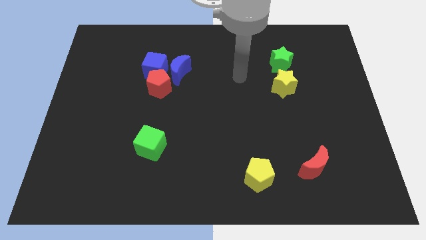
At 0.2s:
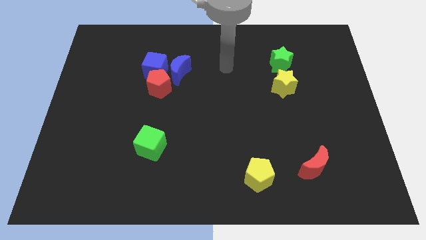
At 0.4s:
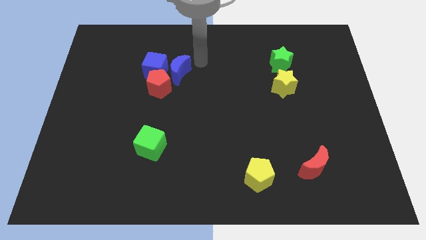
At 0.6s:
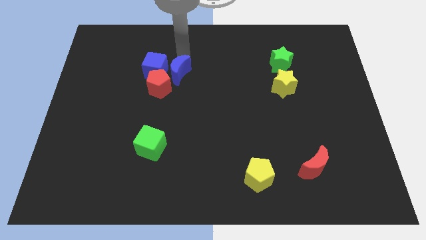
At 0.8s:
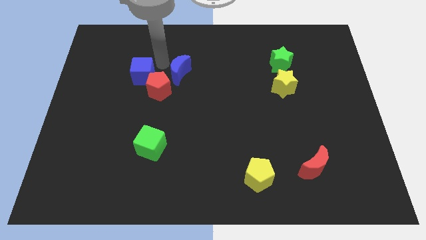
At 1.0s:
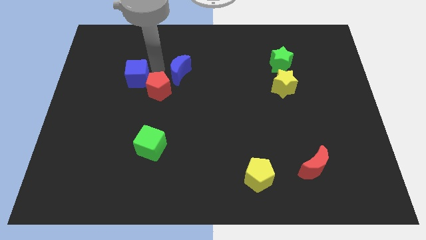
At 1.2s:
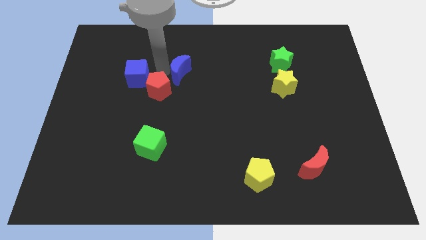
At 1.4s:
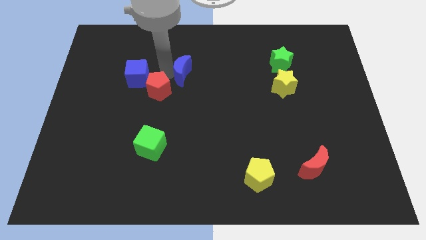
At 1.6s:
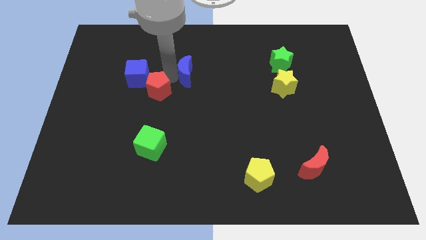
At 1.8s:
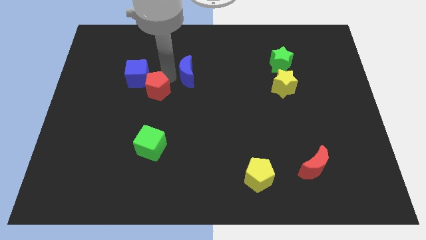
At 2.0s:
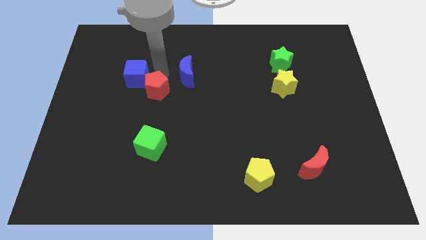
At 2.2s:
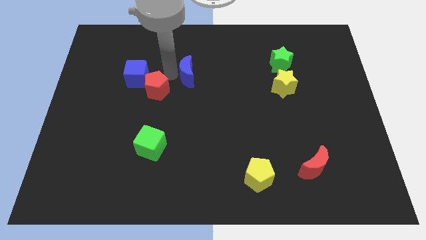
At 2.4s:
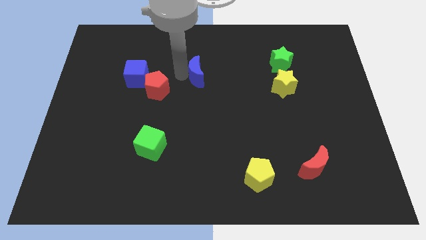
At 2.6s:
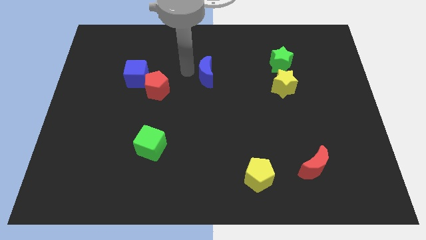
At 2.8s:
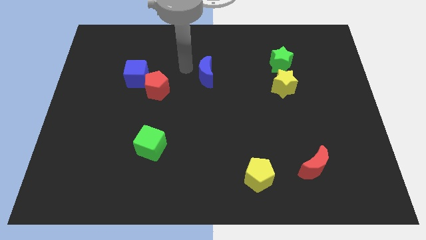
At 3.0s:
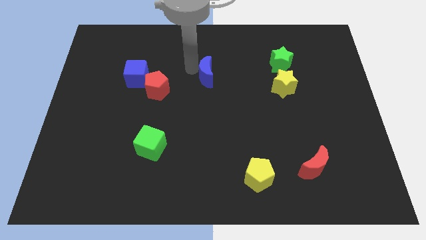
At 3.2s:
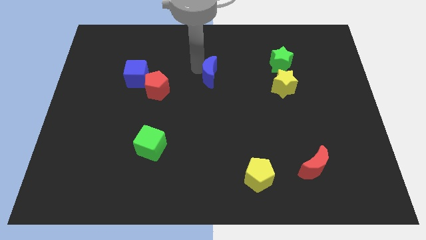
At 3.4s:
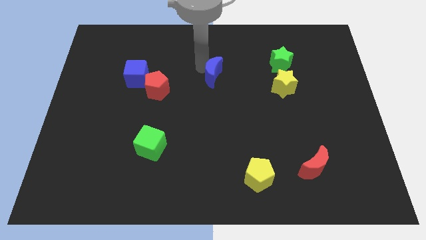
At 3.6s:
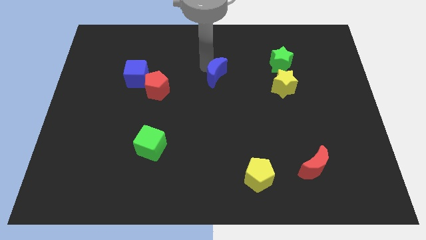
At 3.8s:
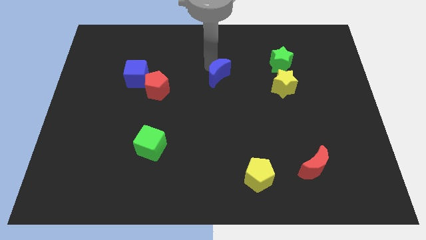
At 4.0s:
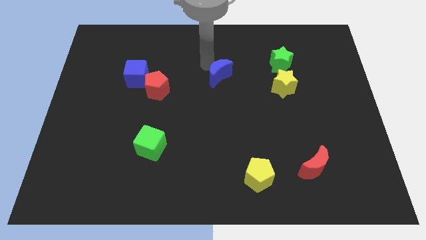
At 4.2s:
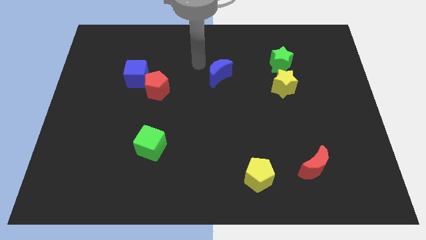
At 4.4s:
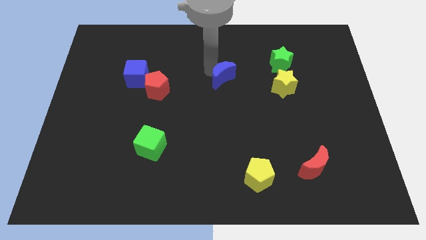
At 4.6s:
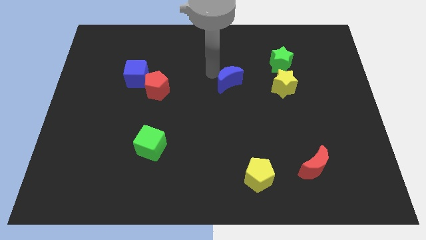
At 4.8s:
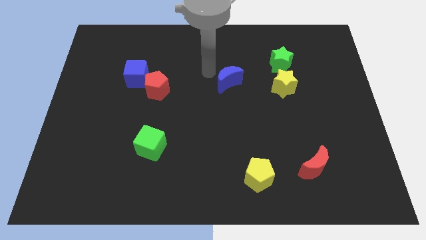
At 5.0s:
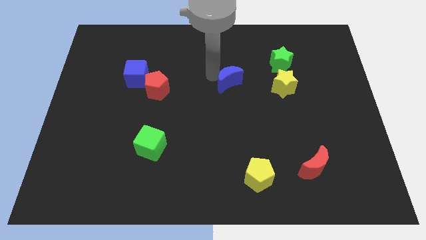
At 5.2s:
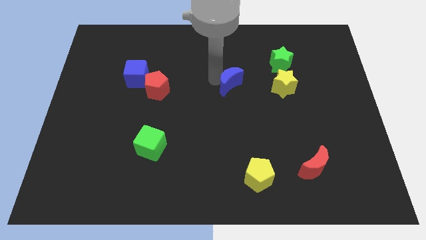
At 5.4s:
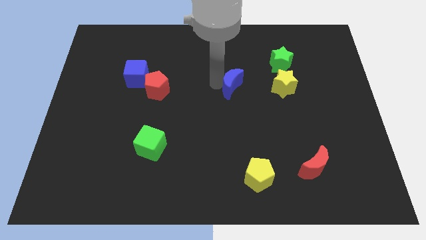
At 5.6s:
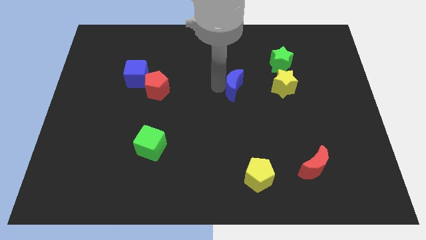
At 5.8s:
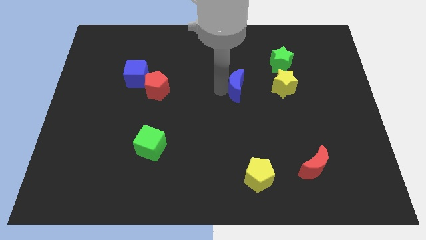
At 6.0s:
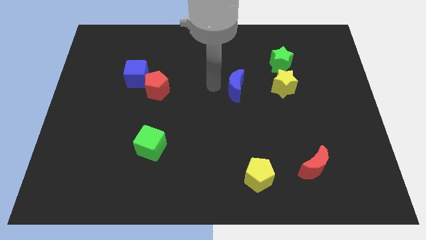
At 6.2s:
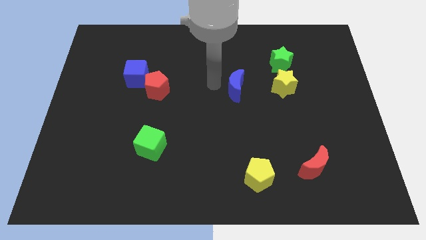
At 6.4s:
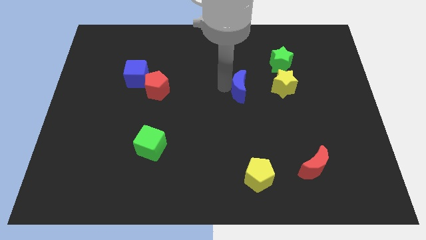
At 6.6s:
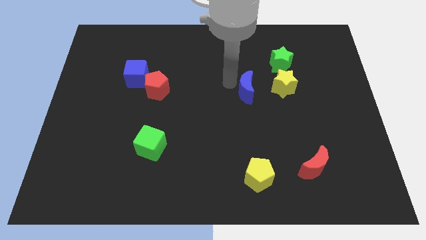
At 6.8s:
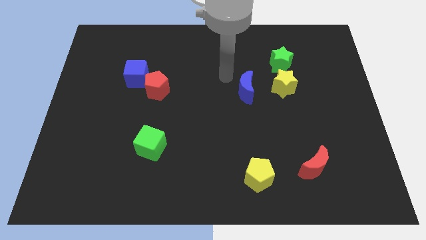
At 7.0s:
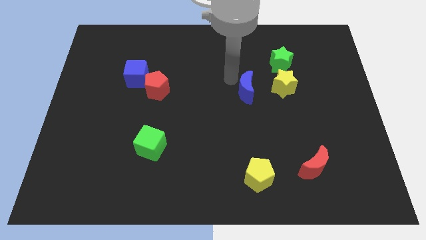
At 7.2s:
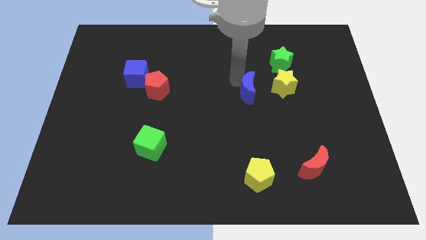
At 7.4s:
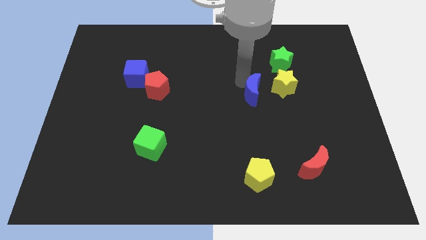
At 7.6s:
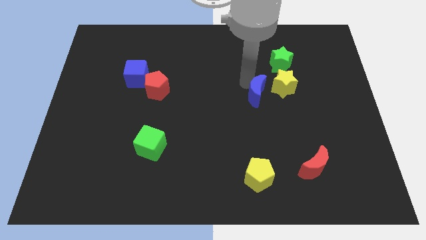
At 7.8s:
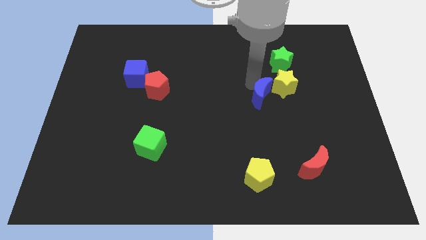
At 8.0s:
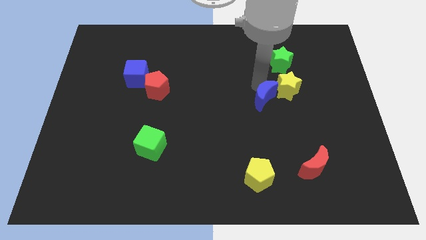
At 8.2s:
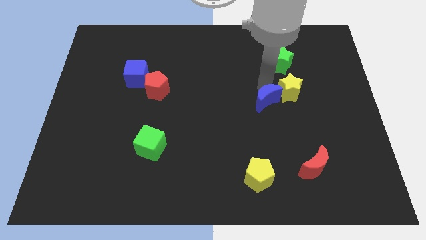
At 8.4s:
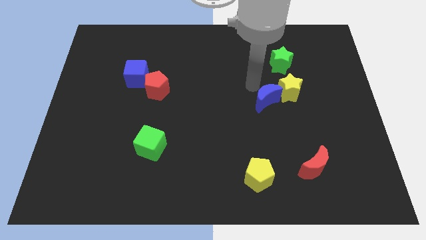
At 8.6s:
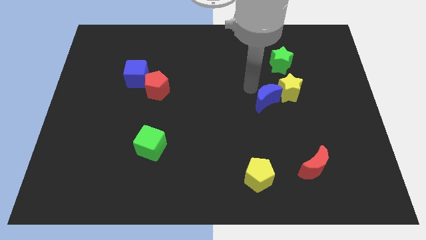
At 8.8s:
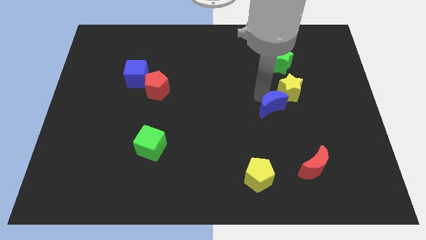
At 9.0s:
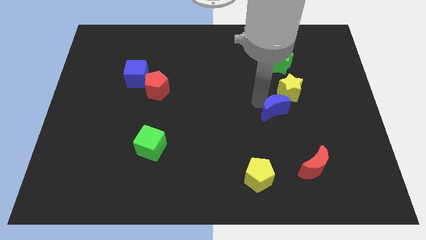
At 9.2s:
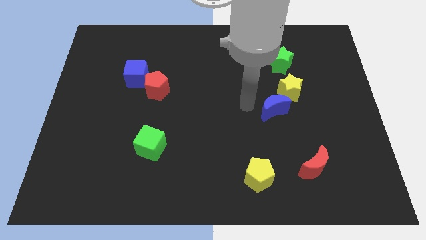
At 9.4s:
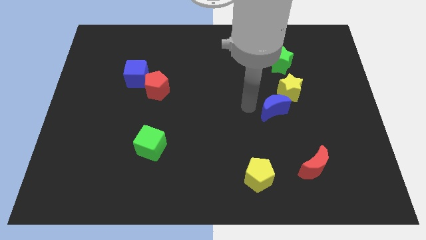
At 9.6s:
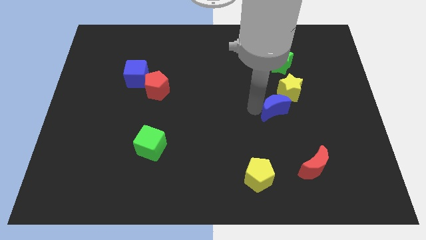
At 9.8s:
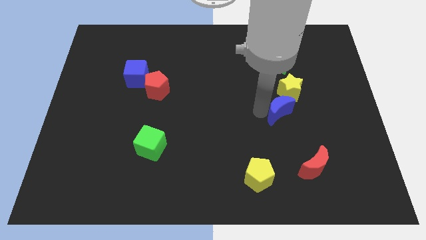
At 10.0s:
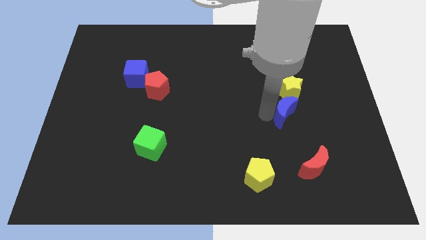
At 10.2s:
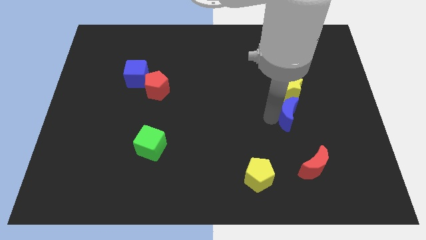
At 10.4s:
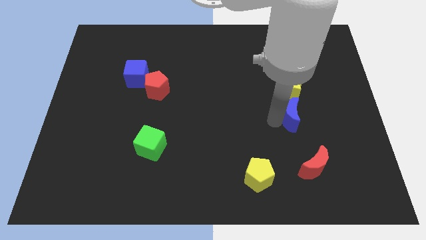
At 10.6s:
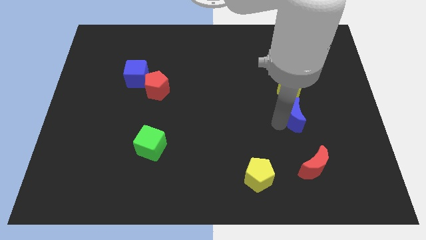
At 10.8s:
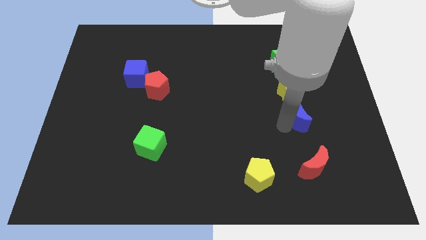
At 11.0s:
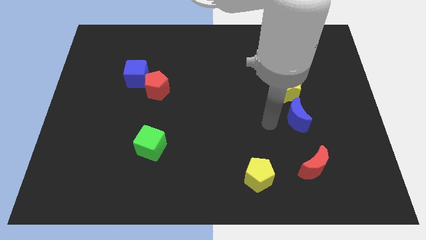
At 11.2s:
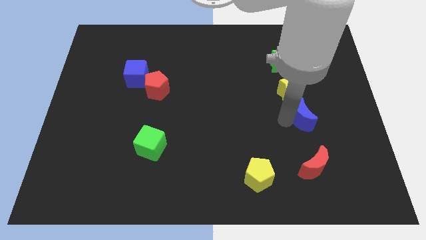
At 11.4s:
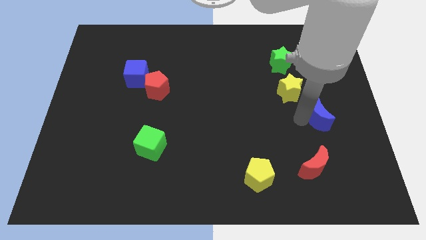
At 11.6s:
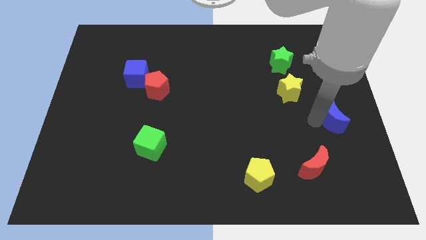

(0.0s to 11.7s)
push the blue moon to the right side
